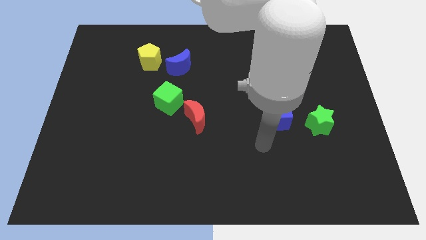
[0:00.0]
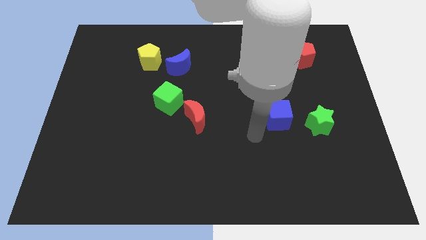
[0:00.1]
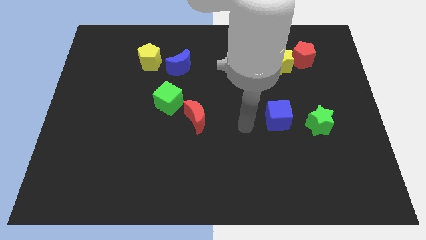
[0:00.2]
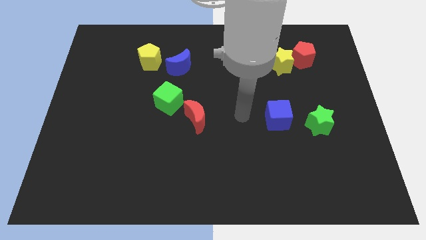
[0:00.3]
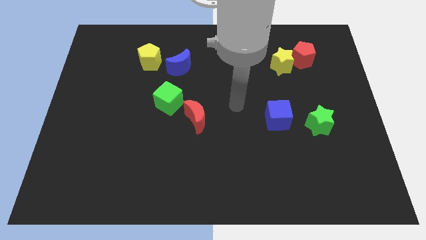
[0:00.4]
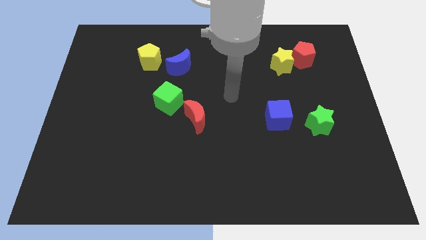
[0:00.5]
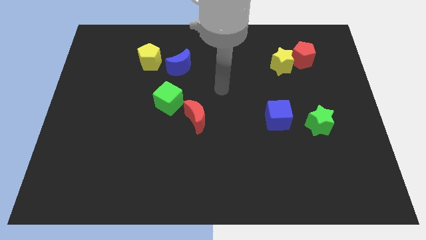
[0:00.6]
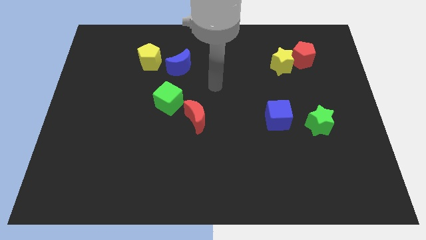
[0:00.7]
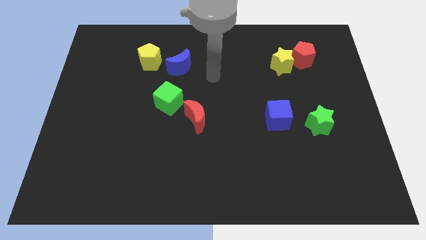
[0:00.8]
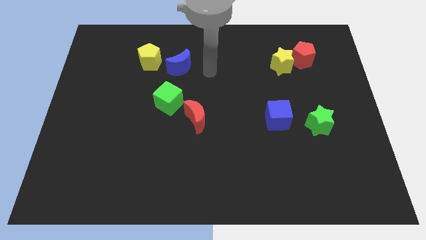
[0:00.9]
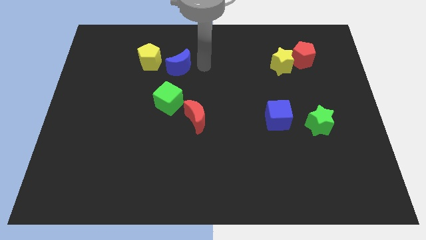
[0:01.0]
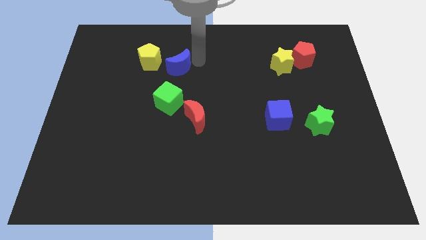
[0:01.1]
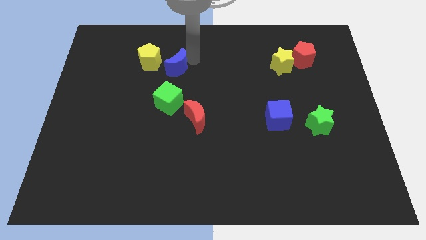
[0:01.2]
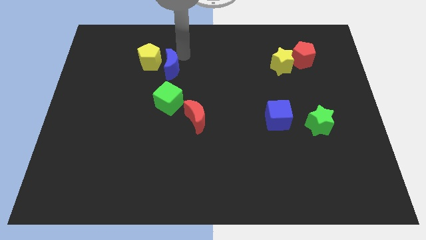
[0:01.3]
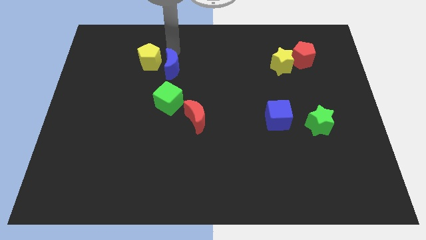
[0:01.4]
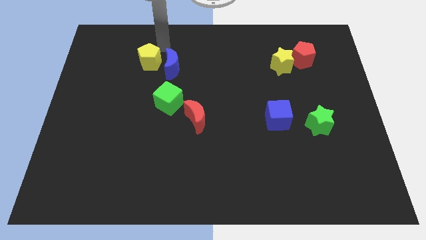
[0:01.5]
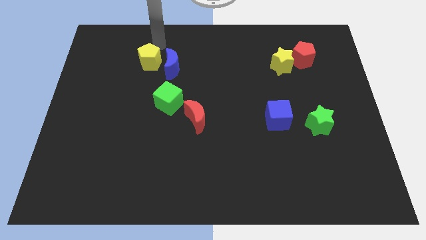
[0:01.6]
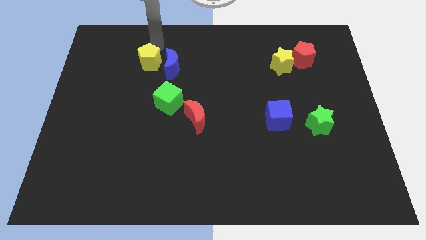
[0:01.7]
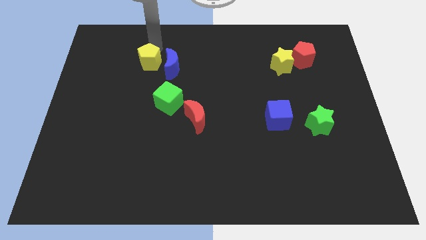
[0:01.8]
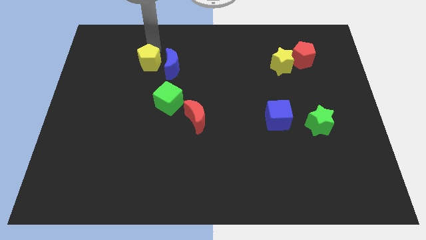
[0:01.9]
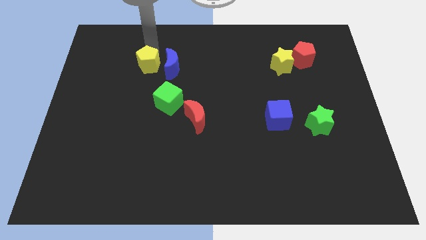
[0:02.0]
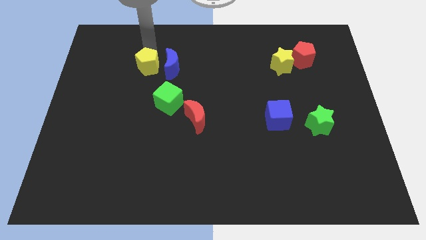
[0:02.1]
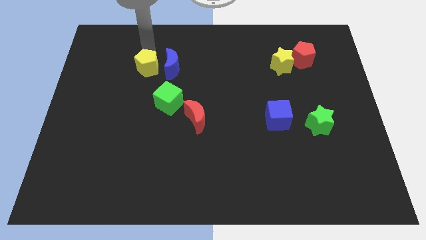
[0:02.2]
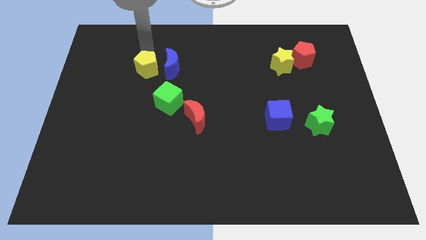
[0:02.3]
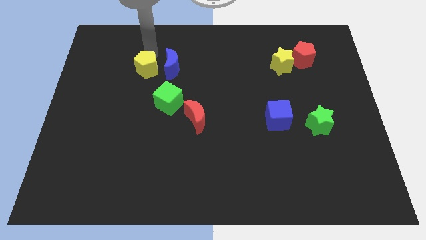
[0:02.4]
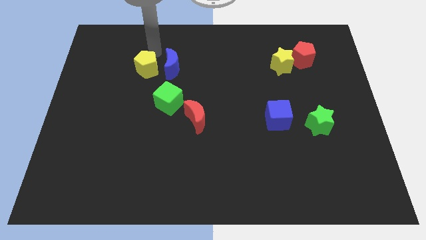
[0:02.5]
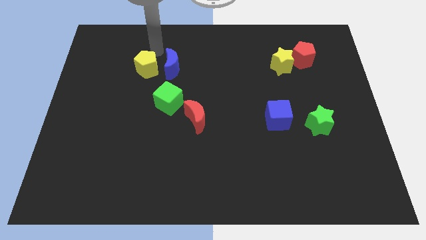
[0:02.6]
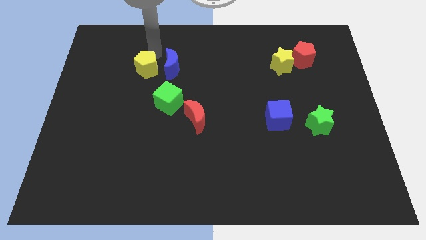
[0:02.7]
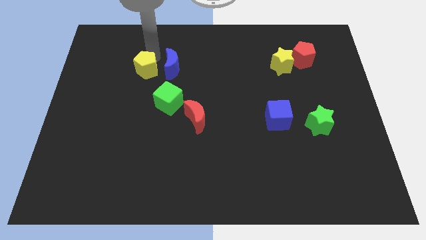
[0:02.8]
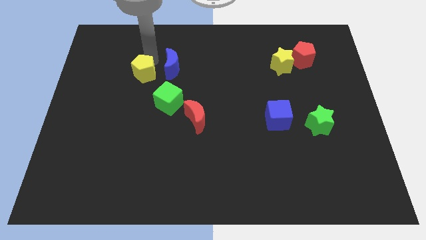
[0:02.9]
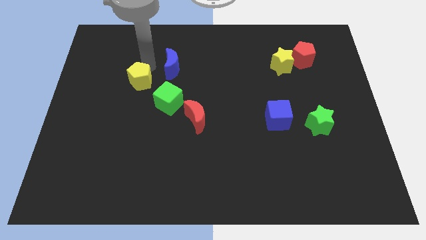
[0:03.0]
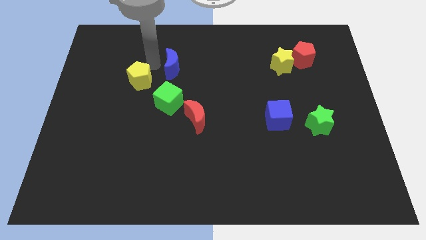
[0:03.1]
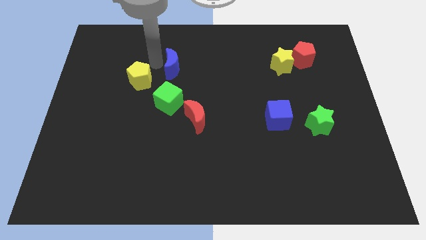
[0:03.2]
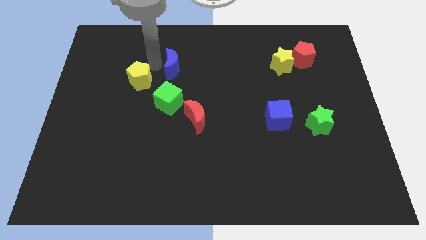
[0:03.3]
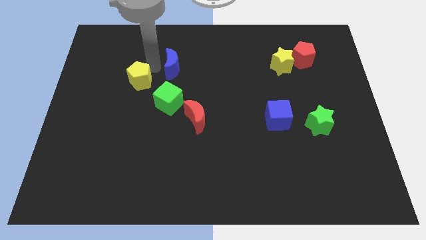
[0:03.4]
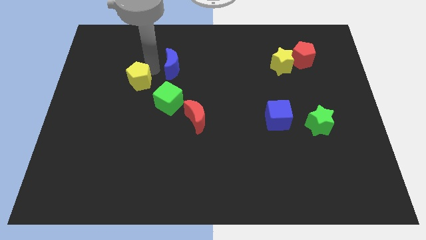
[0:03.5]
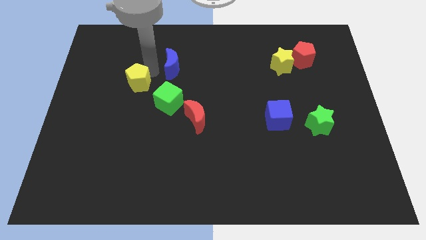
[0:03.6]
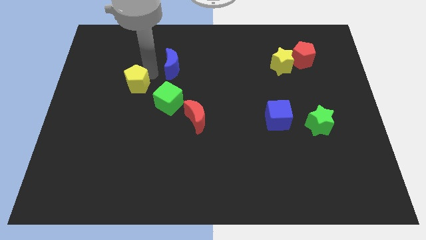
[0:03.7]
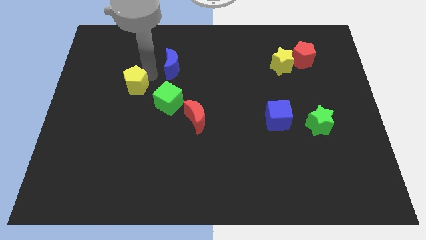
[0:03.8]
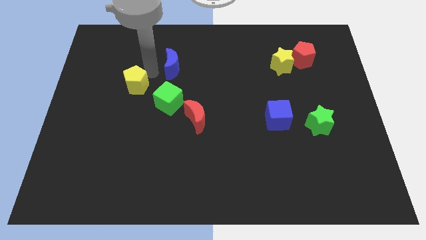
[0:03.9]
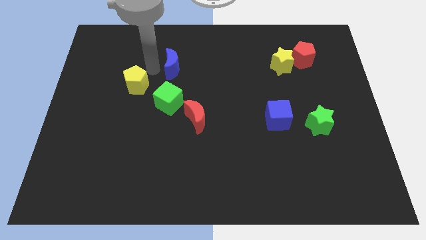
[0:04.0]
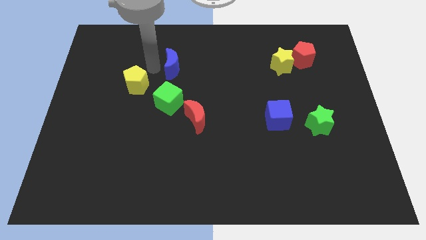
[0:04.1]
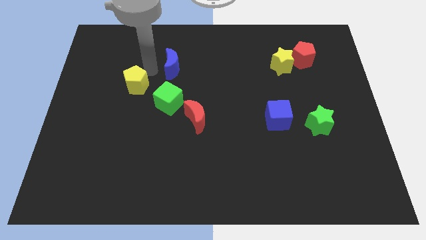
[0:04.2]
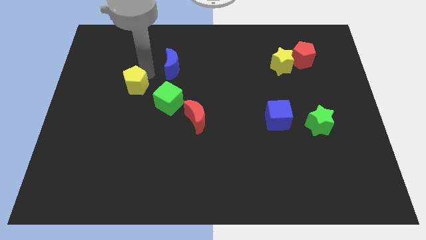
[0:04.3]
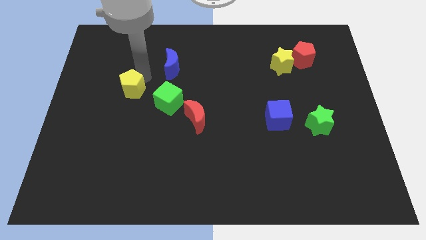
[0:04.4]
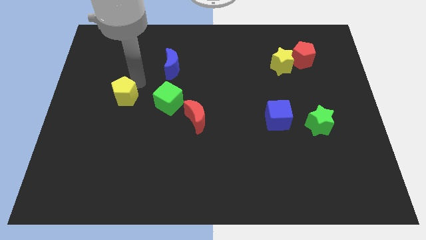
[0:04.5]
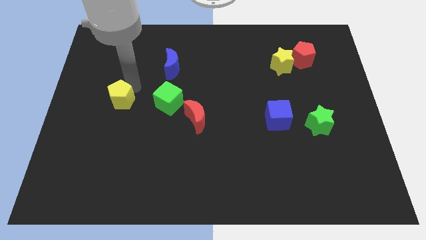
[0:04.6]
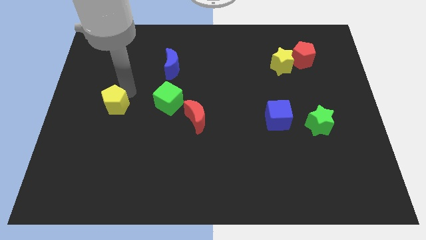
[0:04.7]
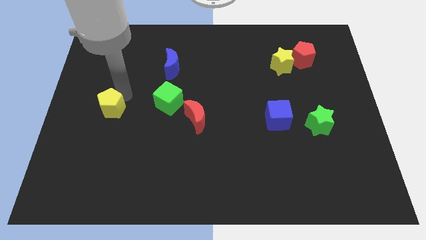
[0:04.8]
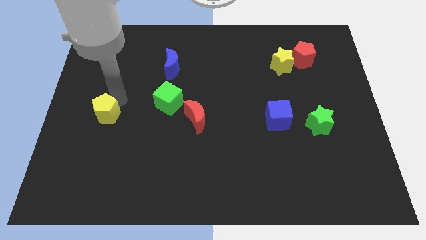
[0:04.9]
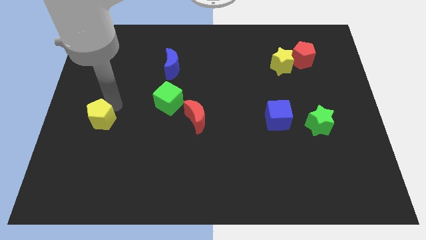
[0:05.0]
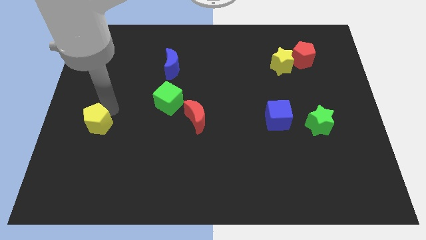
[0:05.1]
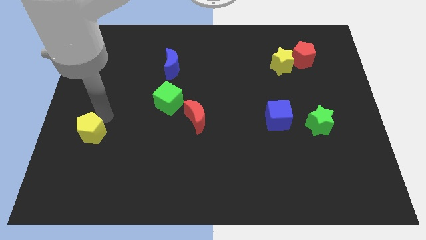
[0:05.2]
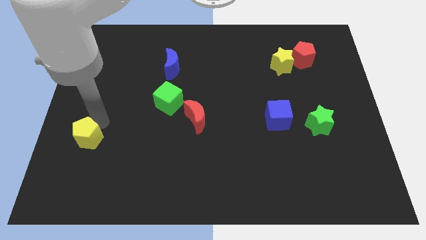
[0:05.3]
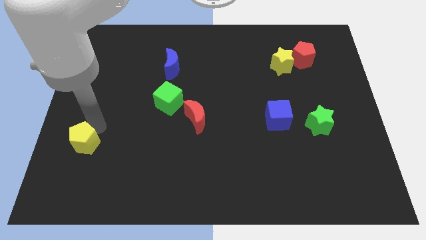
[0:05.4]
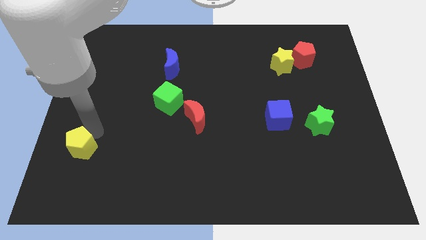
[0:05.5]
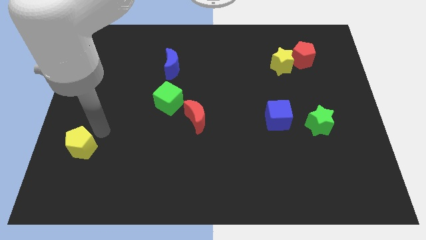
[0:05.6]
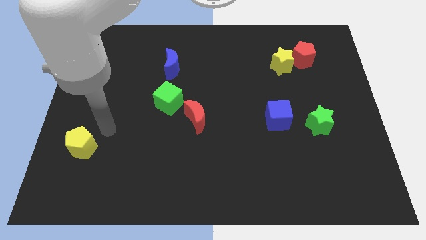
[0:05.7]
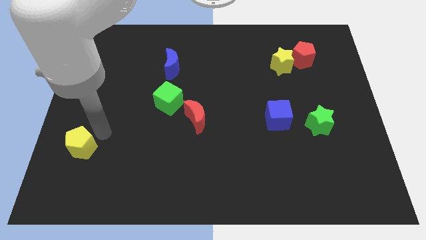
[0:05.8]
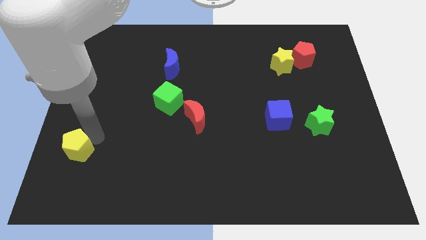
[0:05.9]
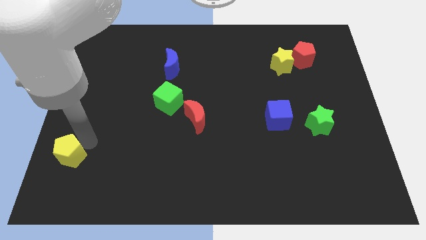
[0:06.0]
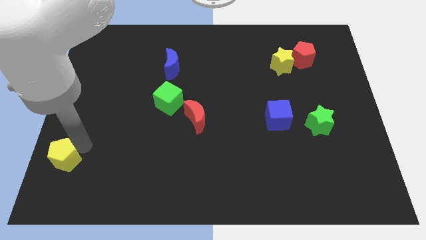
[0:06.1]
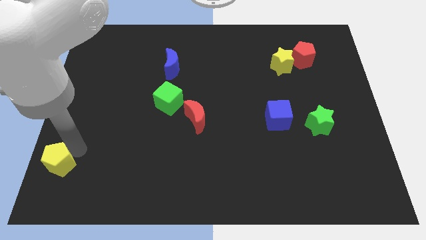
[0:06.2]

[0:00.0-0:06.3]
put the yellow pentagon to the bottom left of the board

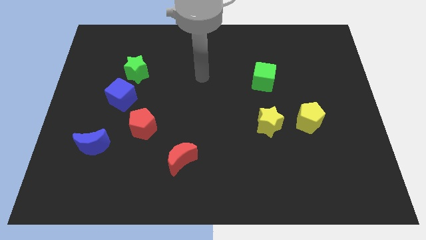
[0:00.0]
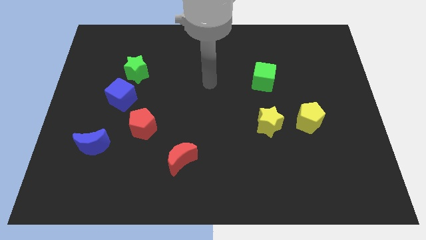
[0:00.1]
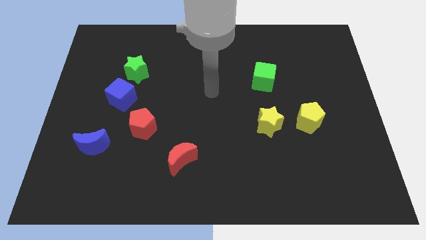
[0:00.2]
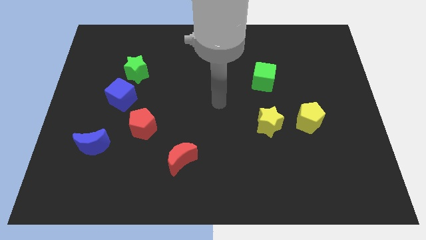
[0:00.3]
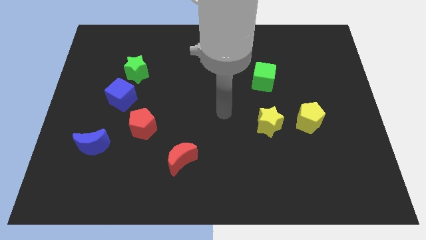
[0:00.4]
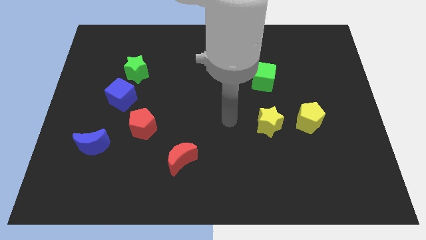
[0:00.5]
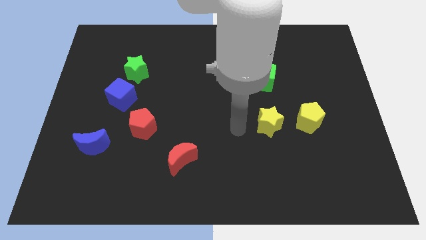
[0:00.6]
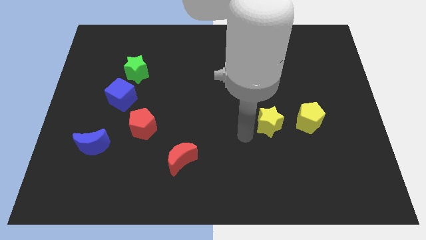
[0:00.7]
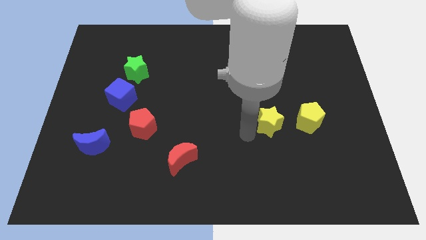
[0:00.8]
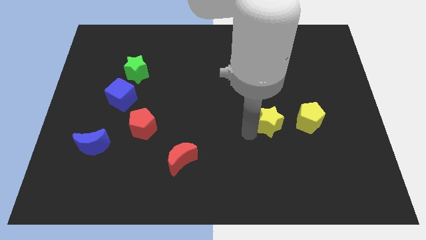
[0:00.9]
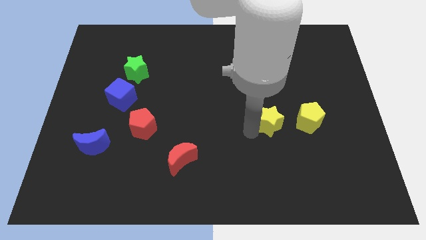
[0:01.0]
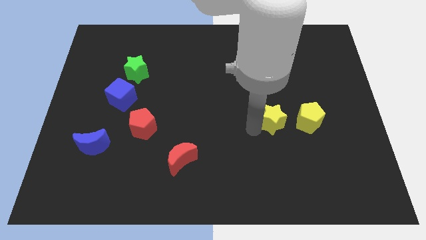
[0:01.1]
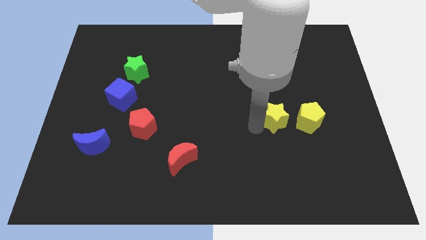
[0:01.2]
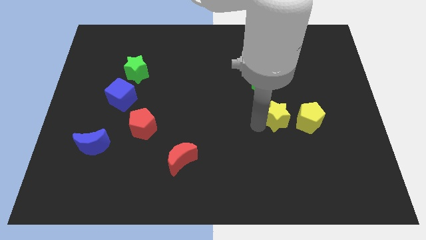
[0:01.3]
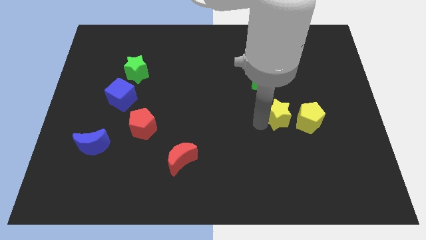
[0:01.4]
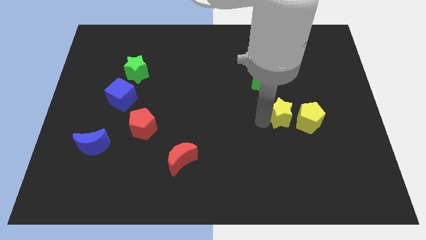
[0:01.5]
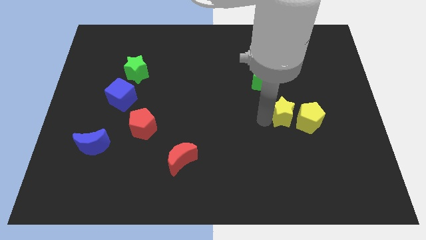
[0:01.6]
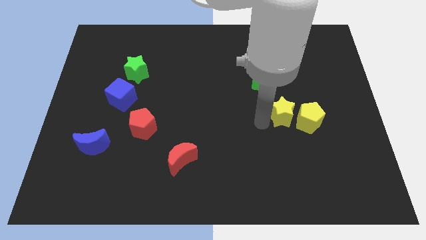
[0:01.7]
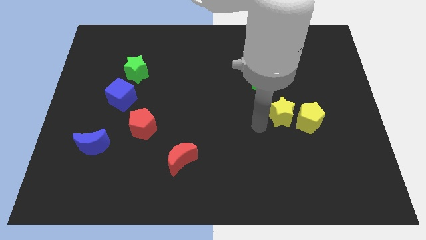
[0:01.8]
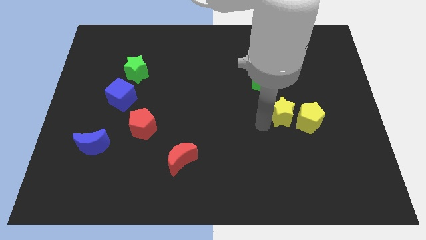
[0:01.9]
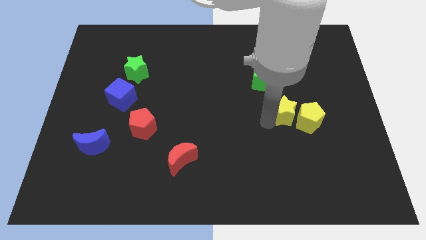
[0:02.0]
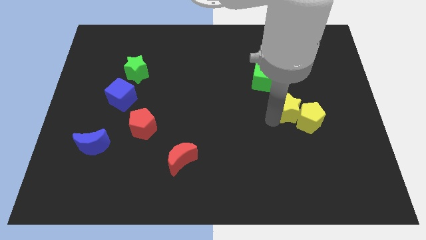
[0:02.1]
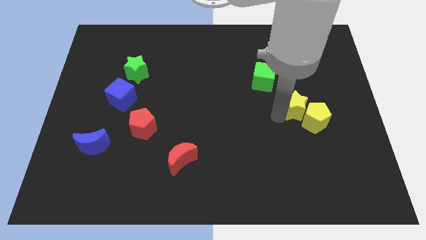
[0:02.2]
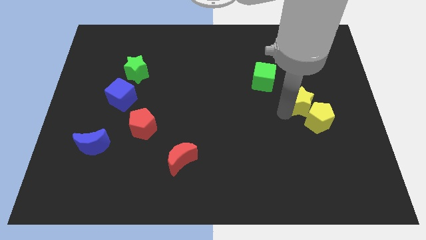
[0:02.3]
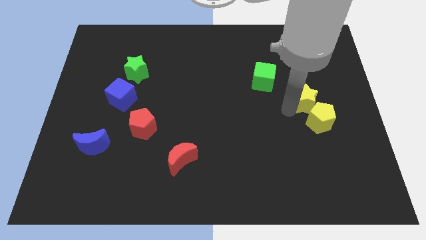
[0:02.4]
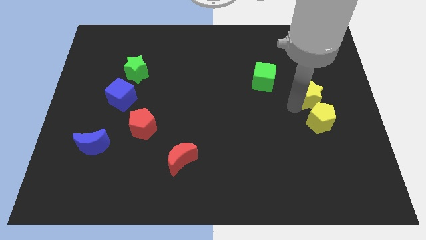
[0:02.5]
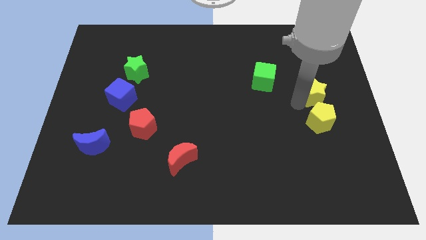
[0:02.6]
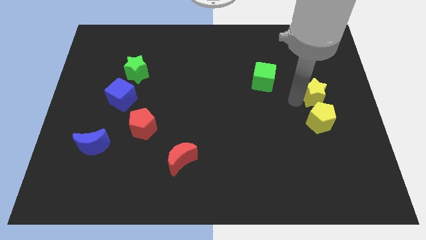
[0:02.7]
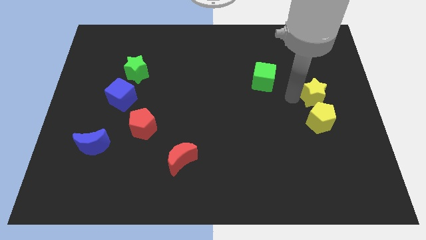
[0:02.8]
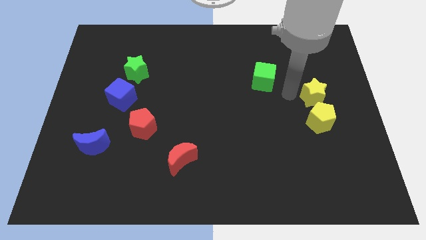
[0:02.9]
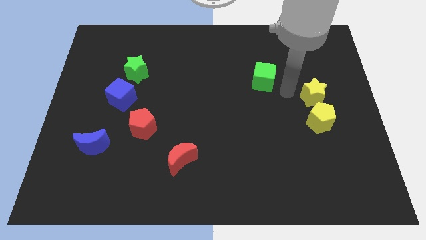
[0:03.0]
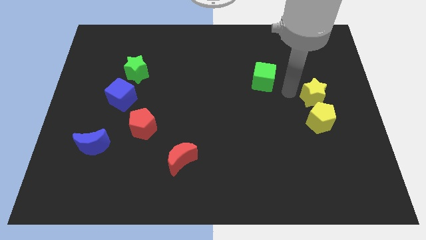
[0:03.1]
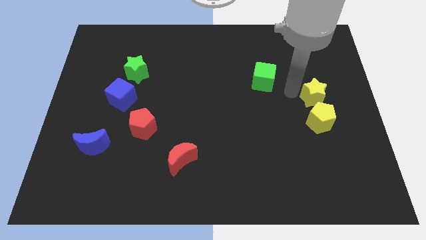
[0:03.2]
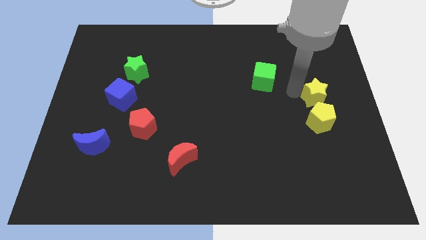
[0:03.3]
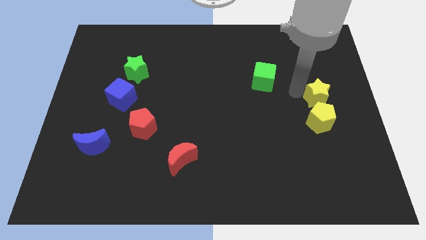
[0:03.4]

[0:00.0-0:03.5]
push the yellow star to the right side of the board
